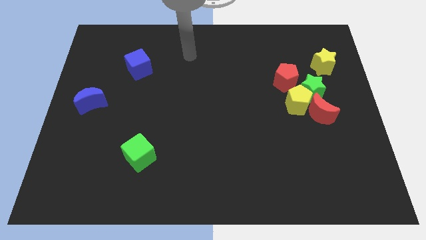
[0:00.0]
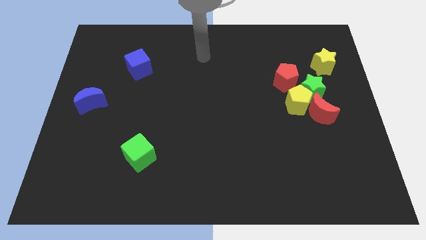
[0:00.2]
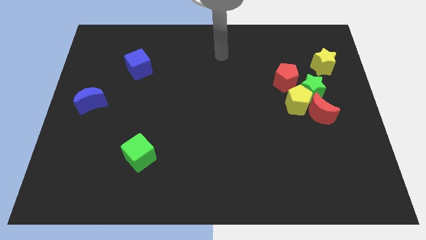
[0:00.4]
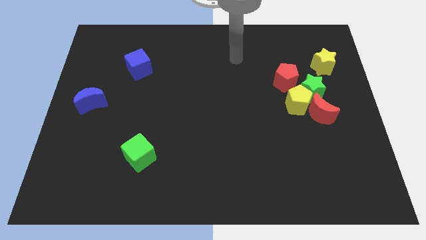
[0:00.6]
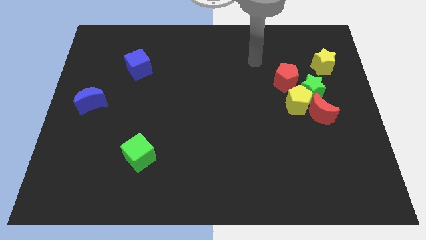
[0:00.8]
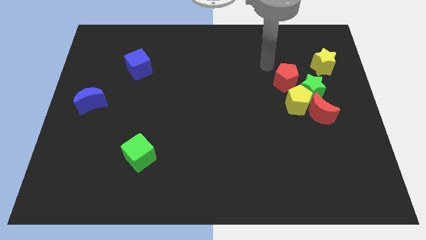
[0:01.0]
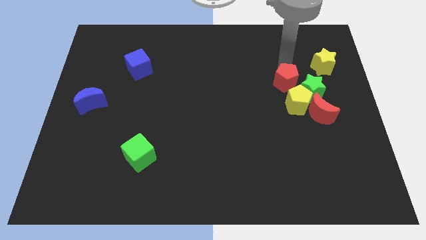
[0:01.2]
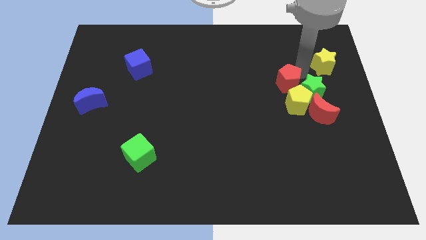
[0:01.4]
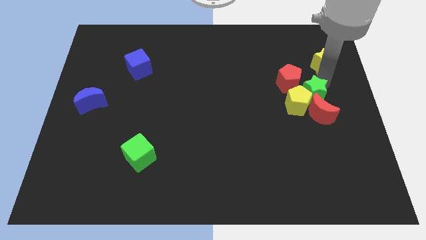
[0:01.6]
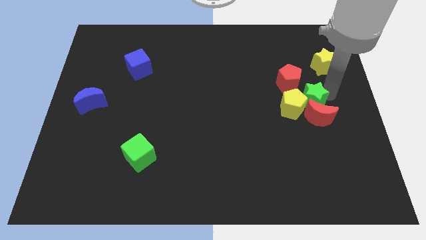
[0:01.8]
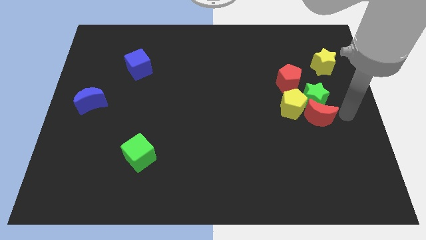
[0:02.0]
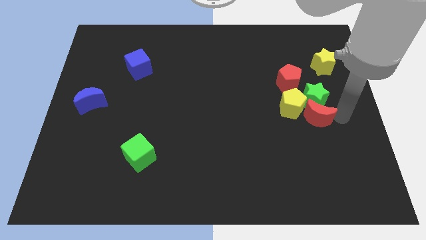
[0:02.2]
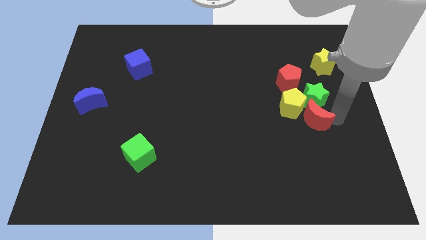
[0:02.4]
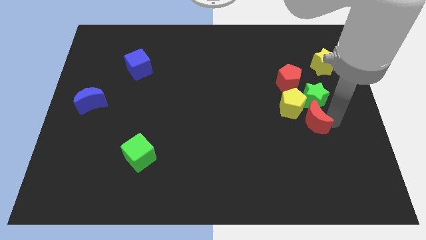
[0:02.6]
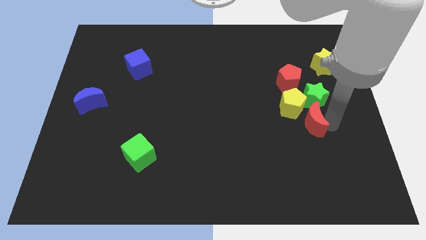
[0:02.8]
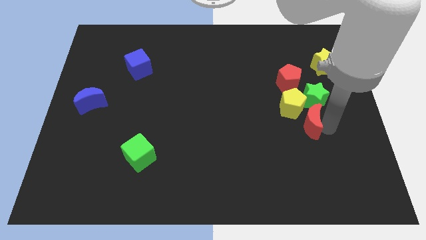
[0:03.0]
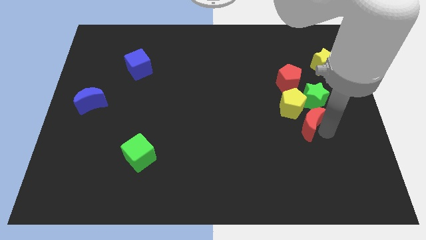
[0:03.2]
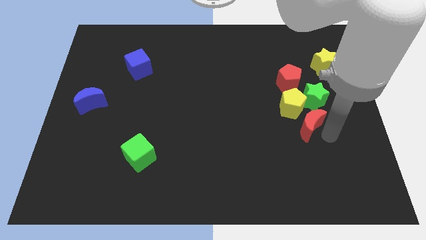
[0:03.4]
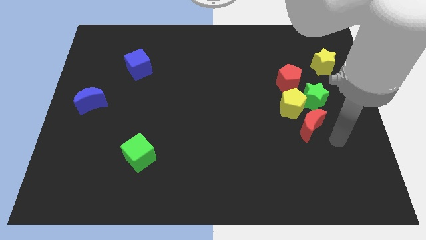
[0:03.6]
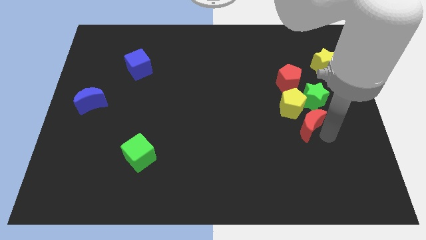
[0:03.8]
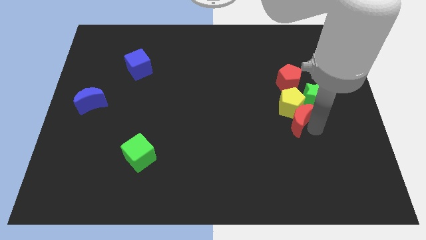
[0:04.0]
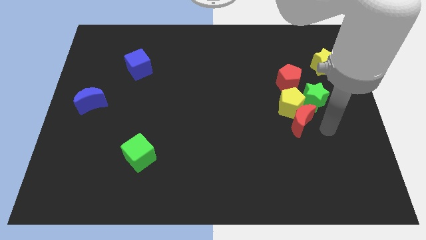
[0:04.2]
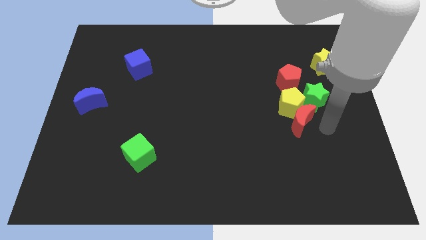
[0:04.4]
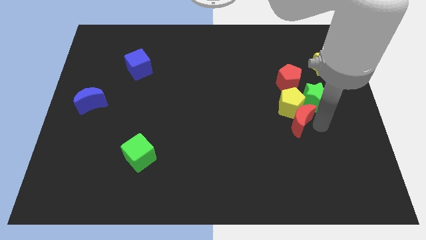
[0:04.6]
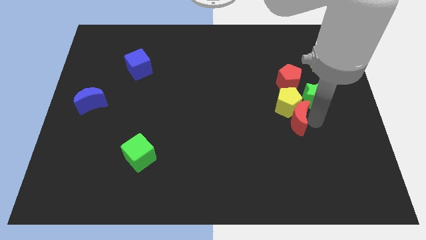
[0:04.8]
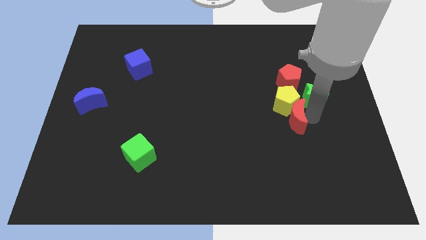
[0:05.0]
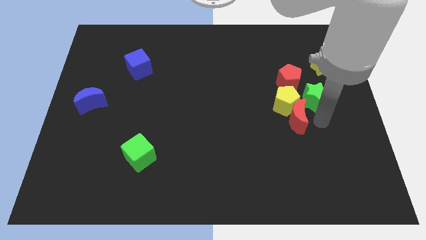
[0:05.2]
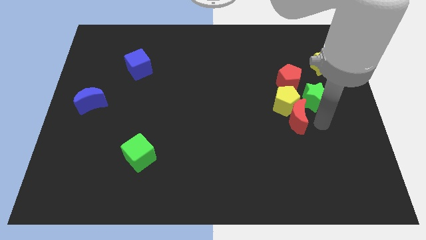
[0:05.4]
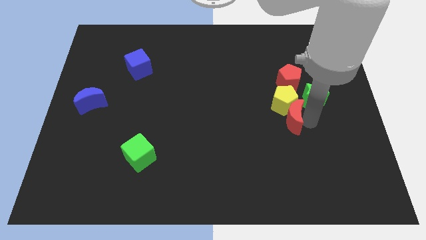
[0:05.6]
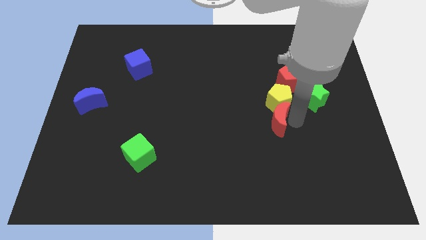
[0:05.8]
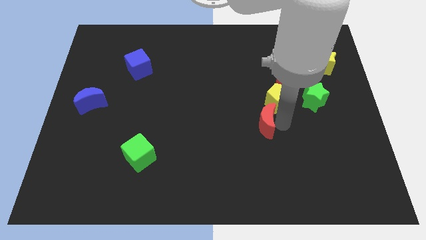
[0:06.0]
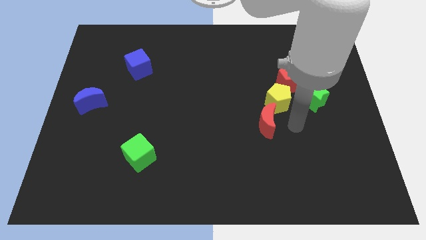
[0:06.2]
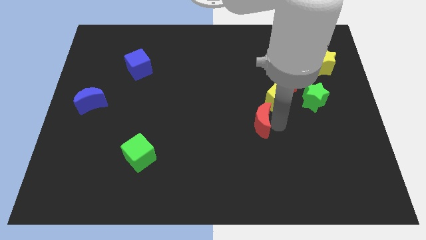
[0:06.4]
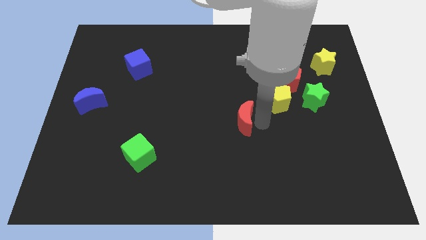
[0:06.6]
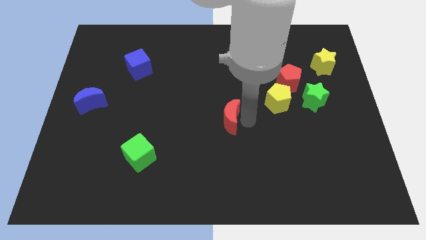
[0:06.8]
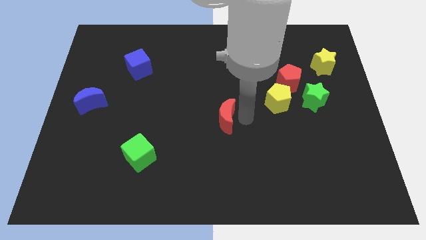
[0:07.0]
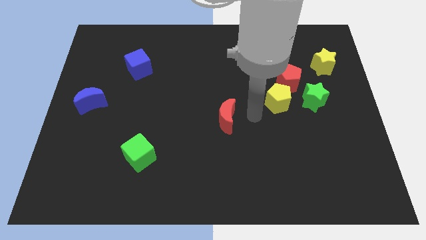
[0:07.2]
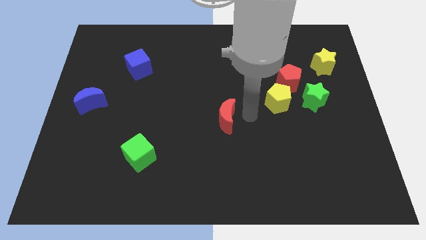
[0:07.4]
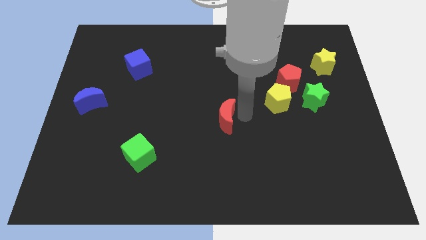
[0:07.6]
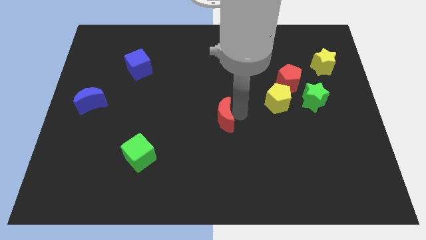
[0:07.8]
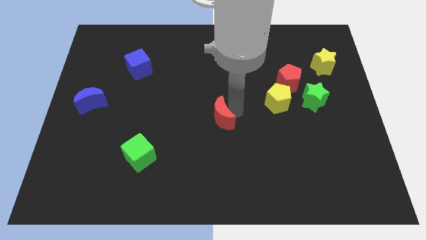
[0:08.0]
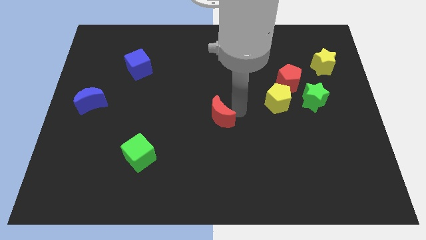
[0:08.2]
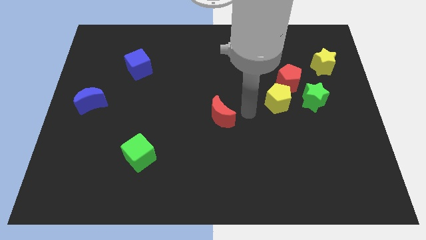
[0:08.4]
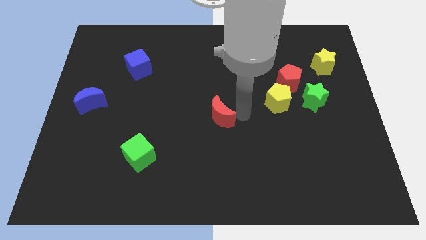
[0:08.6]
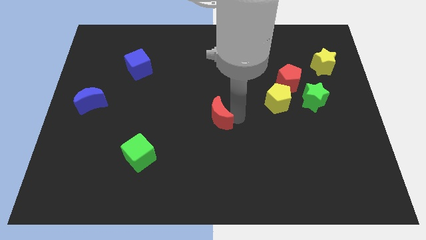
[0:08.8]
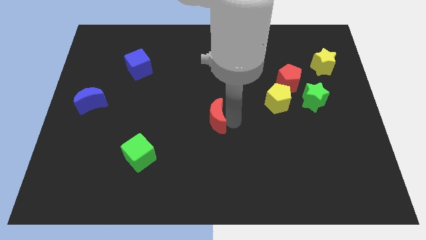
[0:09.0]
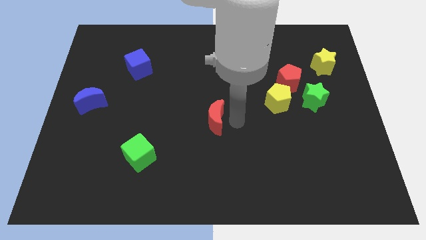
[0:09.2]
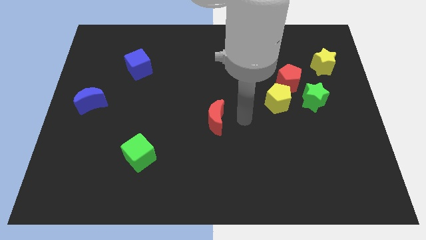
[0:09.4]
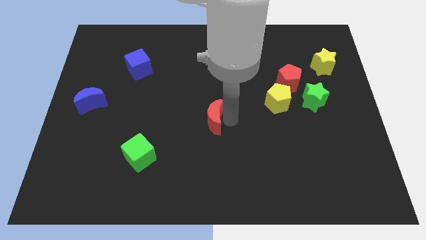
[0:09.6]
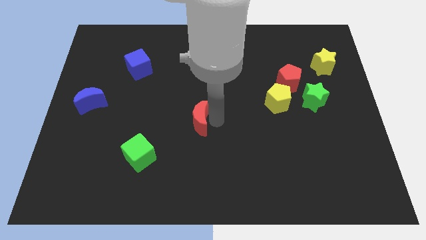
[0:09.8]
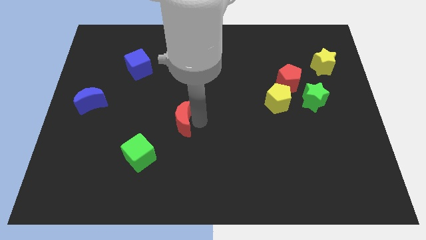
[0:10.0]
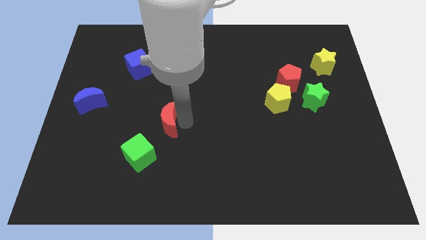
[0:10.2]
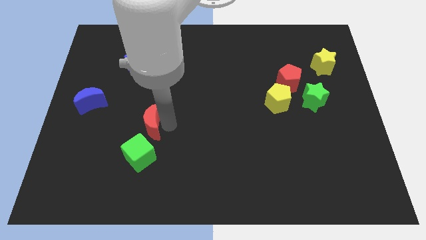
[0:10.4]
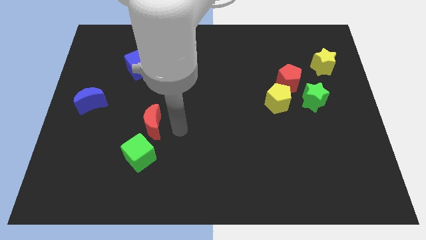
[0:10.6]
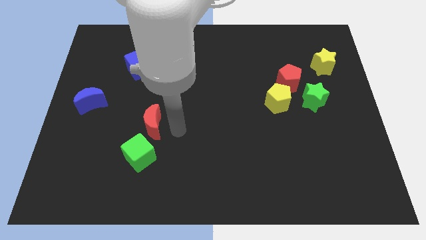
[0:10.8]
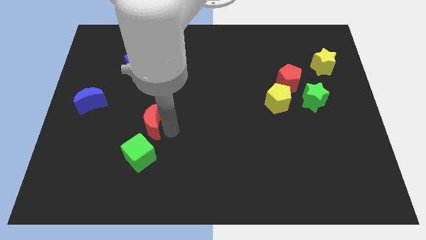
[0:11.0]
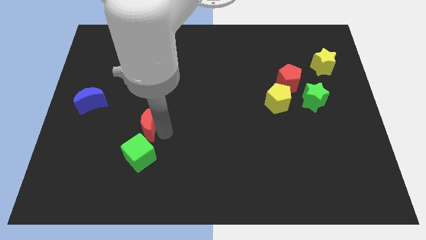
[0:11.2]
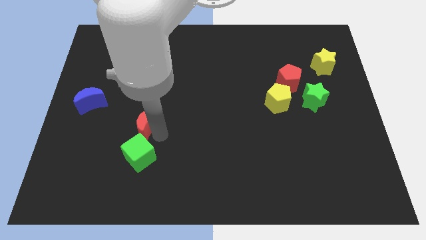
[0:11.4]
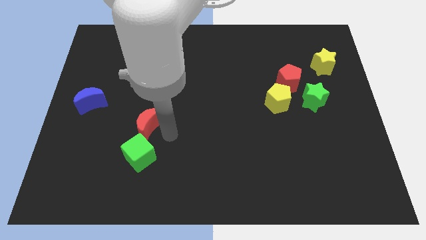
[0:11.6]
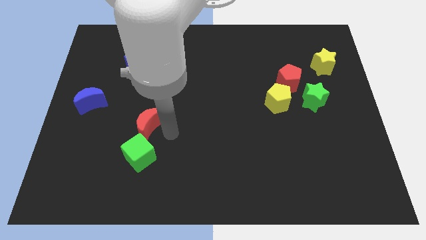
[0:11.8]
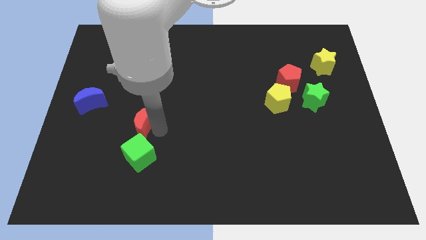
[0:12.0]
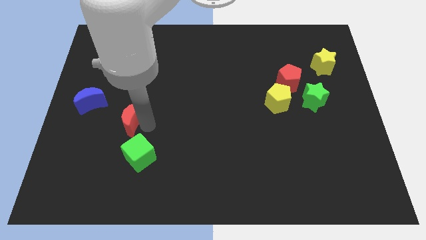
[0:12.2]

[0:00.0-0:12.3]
slide the red moon to the bottom right side of the blue moon
